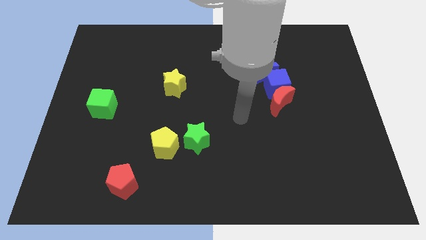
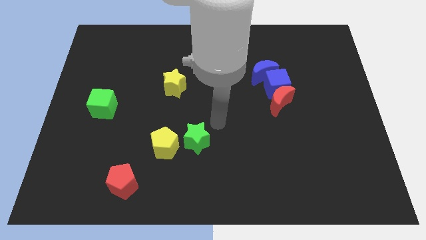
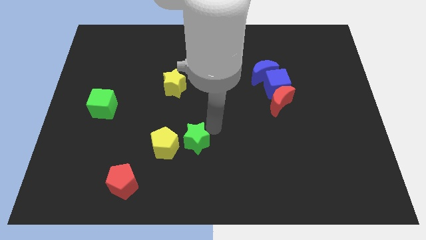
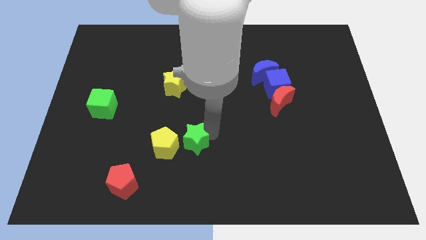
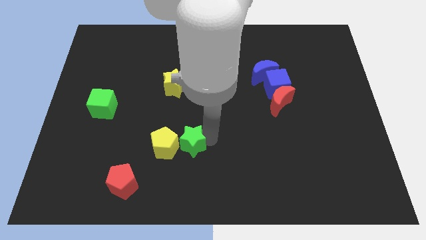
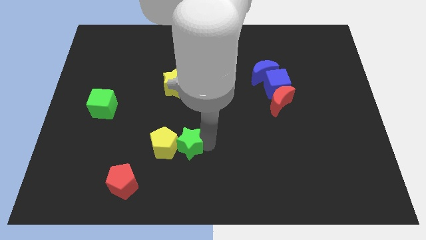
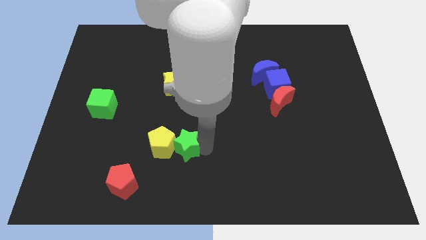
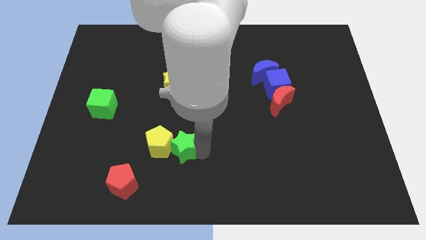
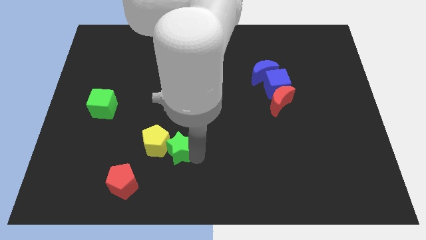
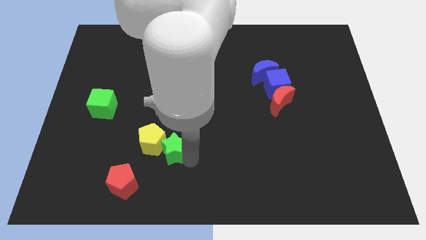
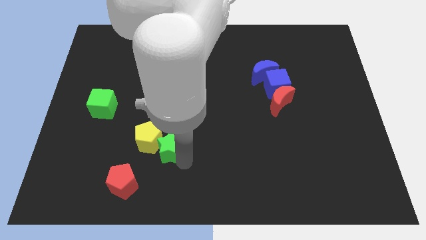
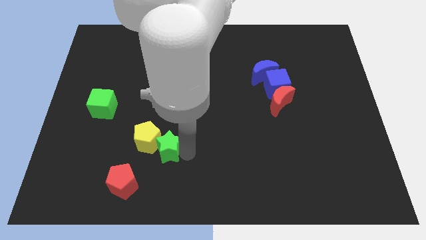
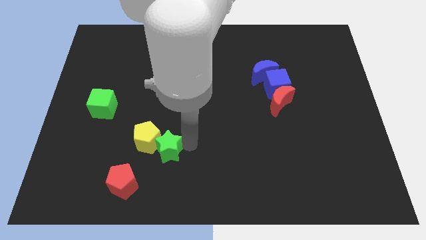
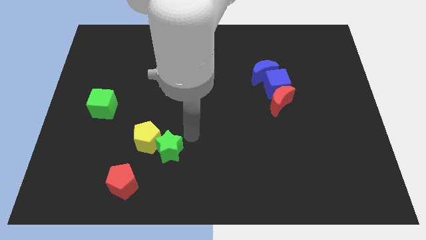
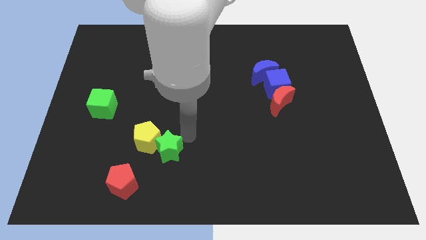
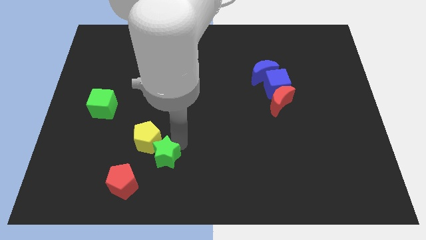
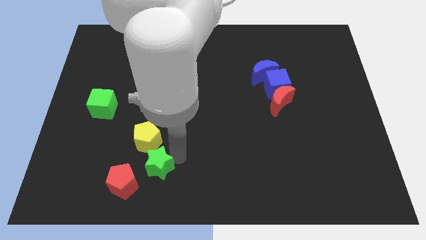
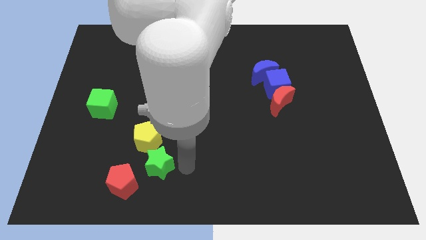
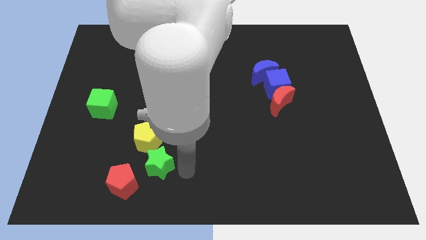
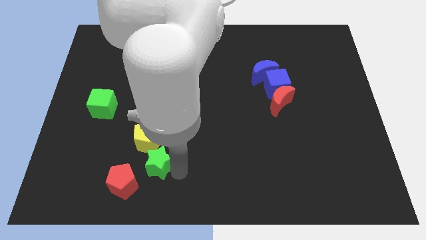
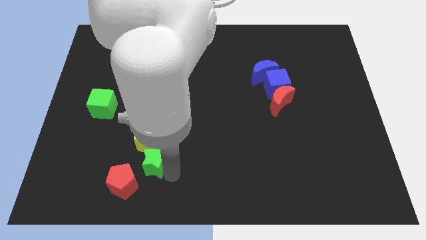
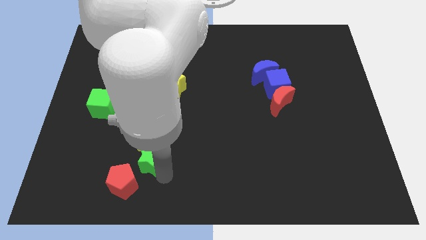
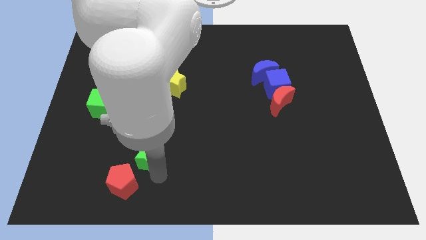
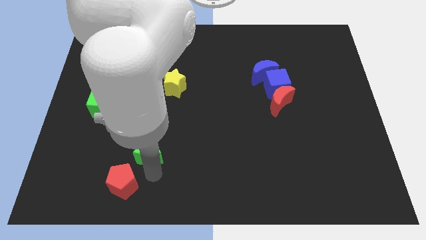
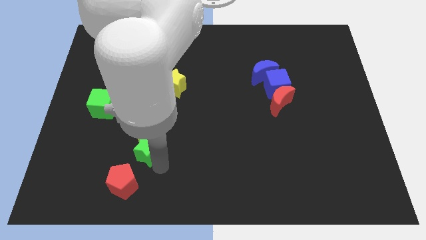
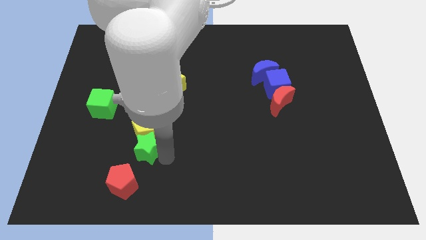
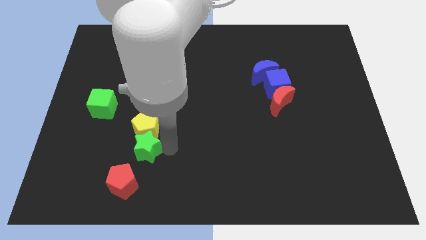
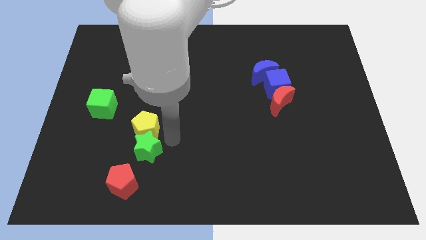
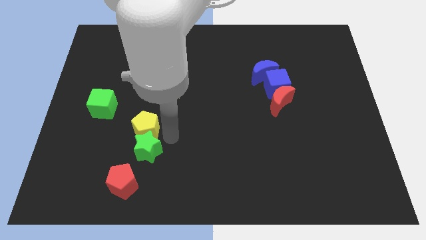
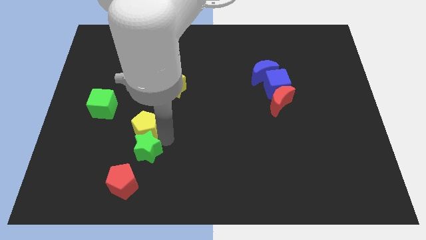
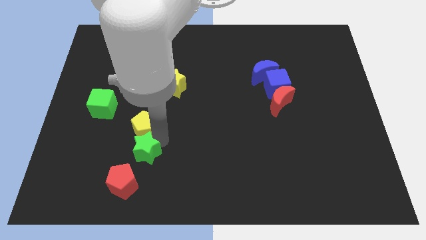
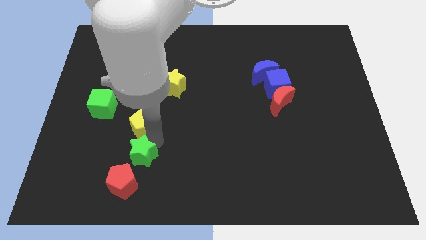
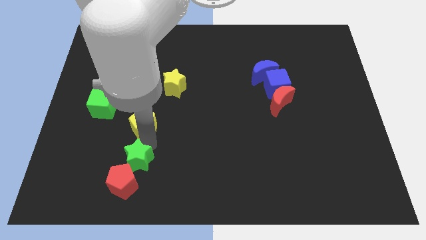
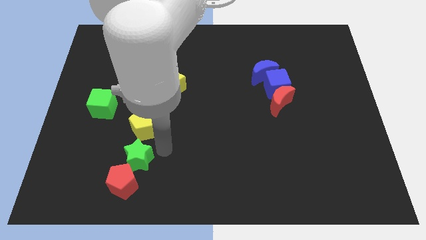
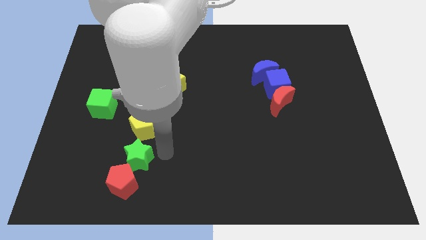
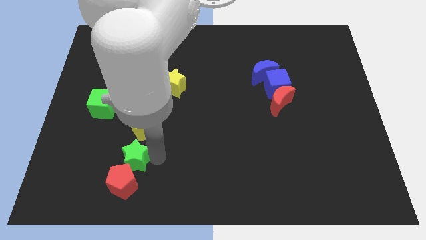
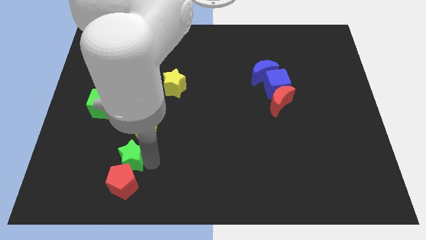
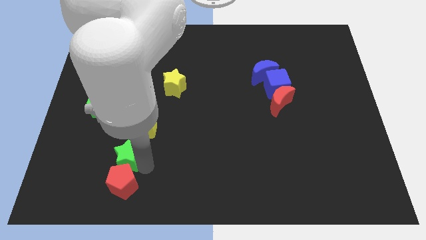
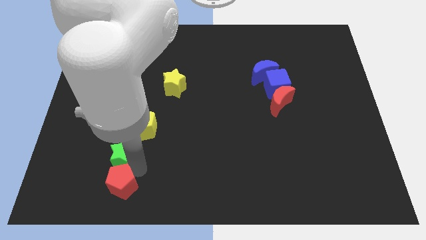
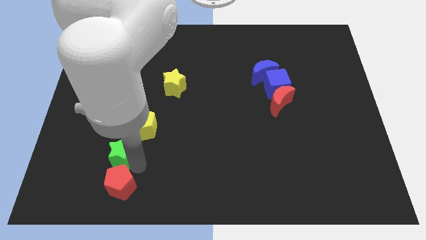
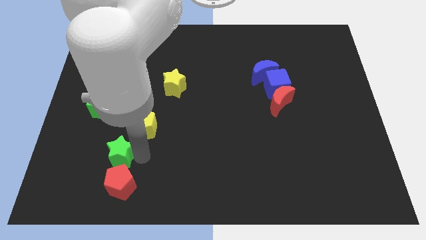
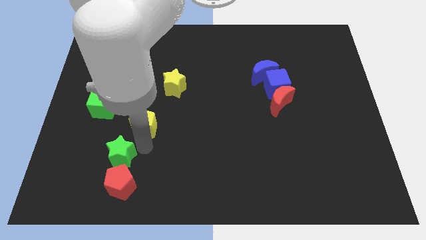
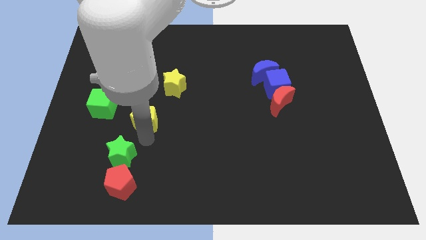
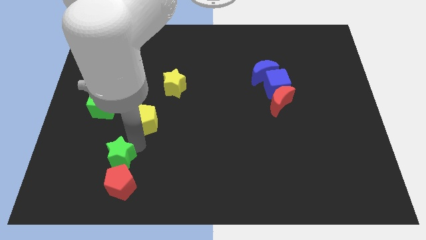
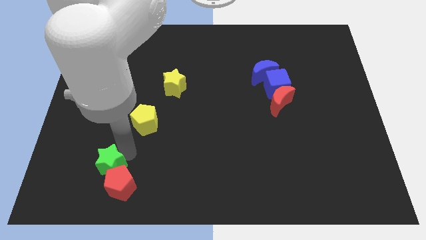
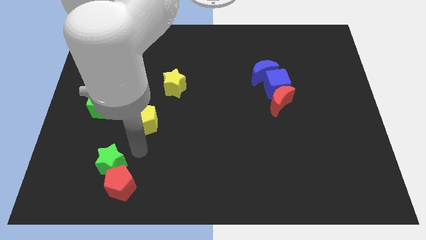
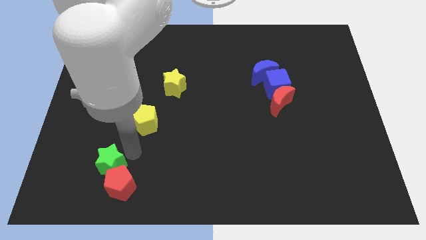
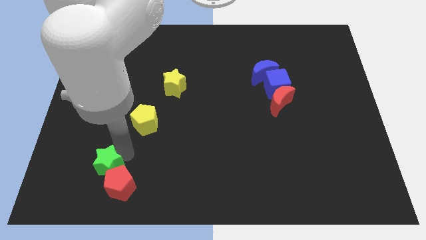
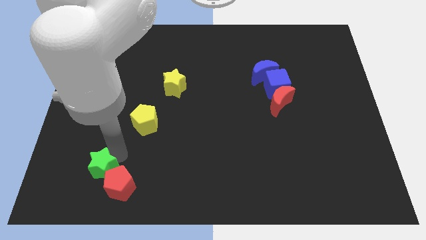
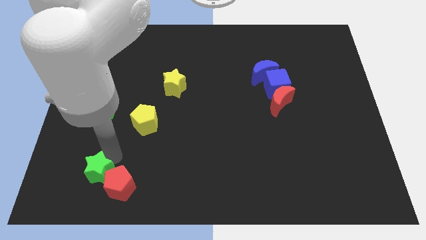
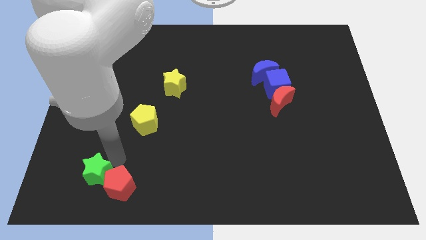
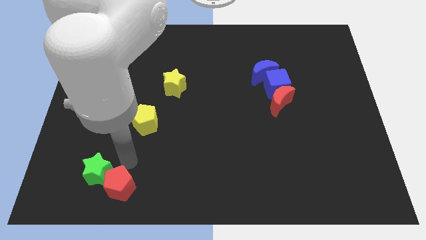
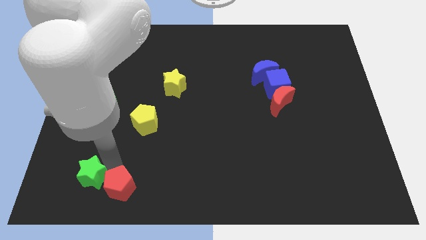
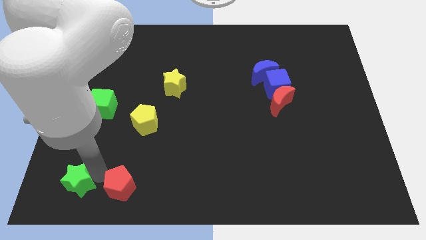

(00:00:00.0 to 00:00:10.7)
push the green star to the bottom left

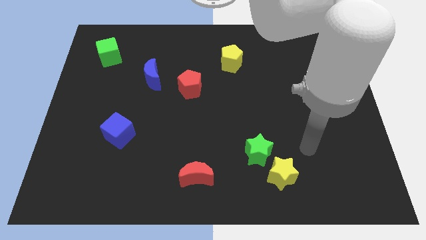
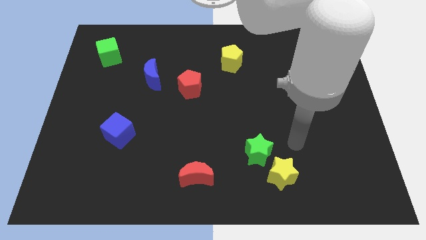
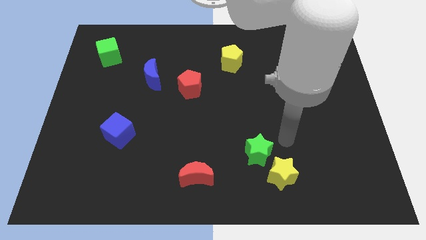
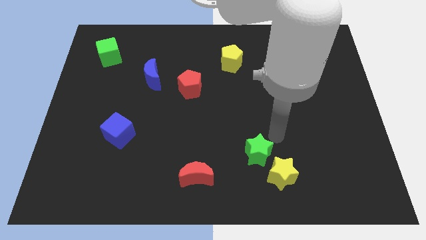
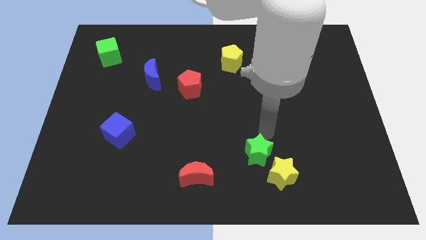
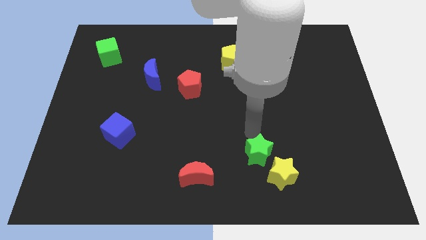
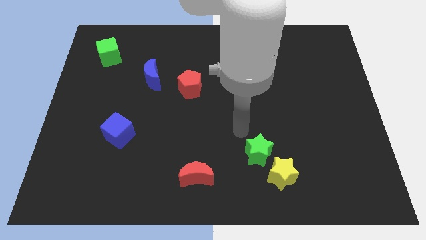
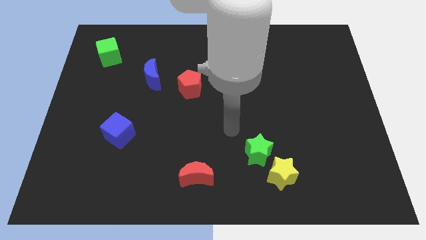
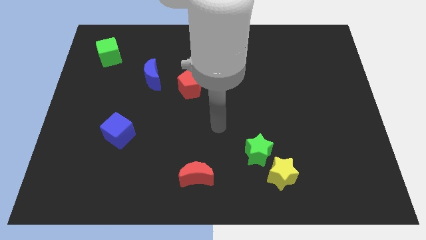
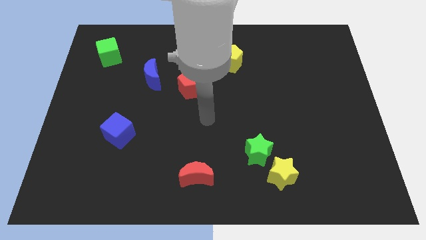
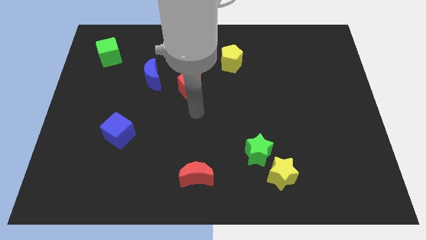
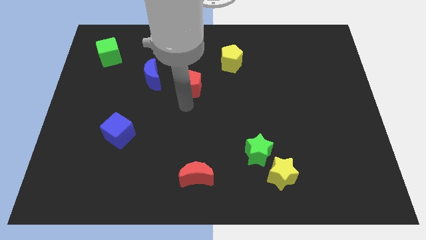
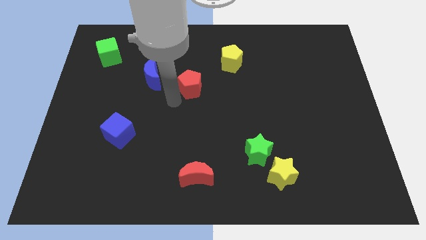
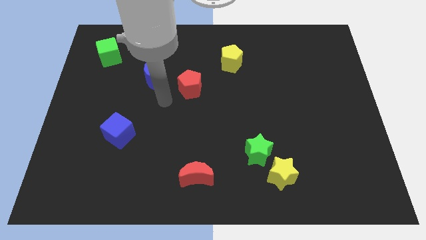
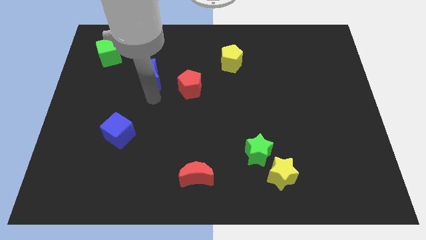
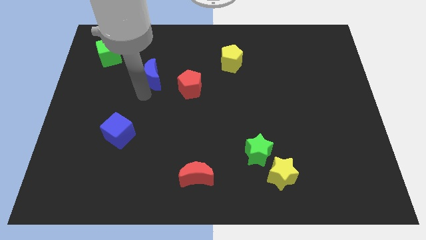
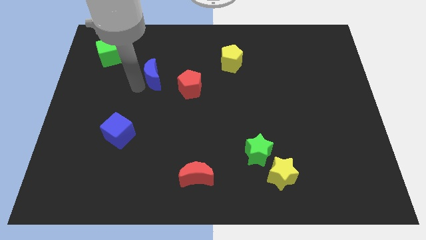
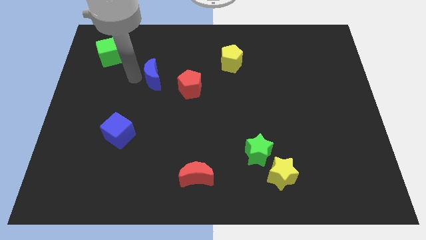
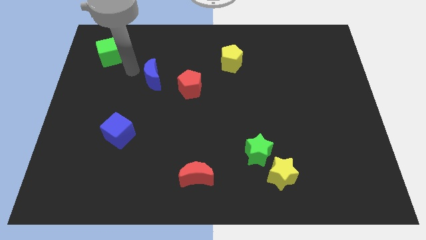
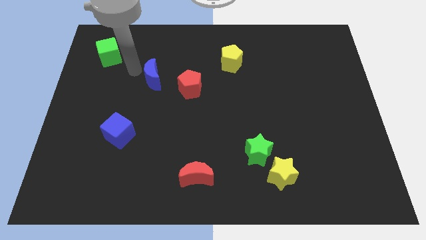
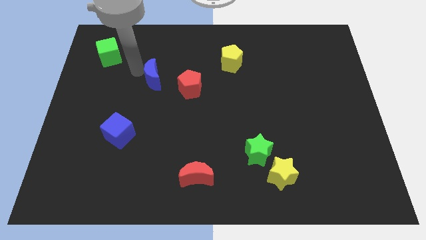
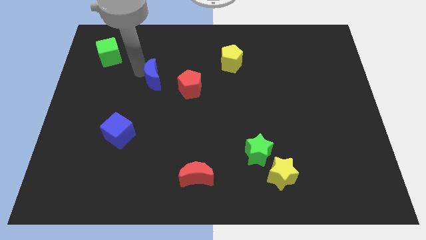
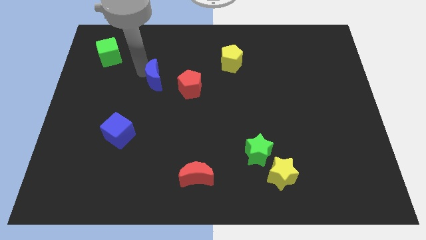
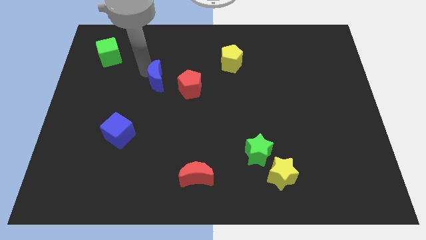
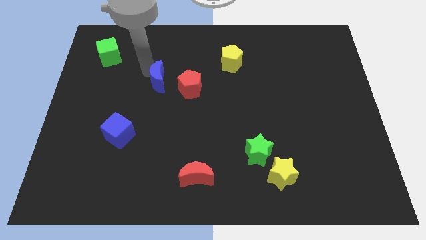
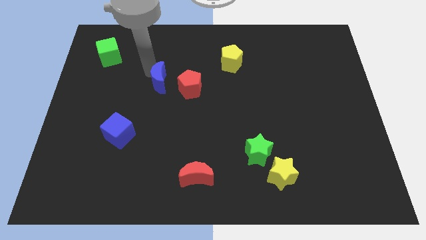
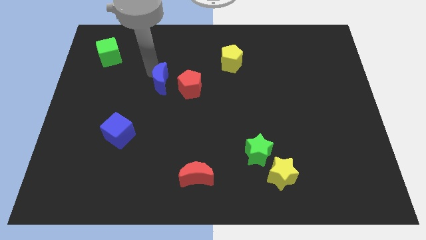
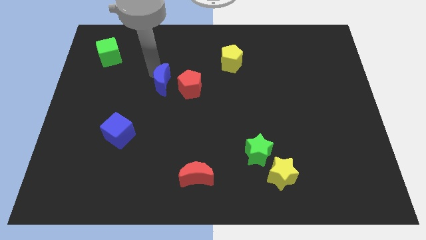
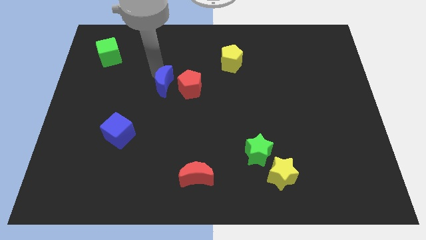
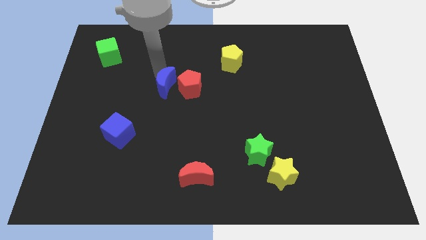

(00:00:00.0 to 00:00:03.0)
put the blue moon to the center of the board
